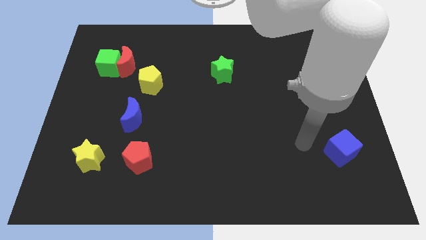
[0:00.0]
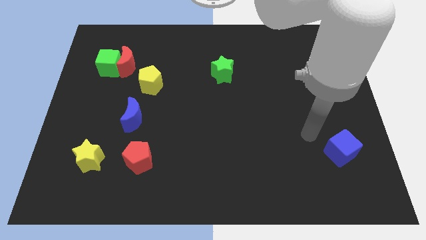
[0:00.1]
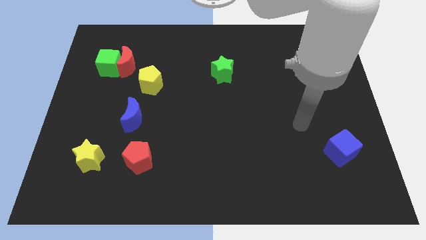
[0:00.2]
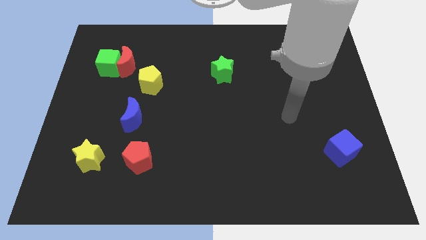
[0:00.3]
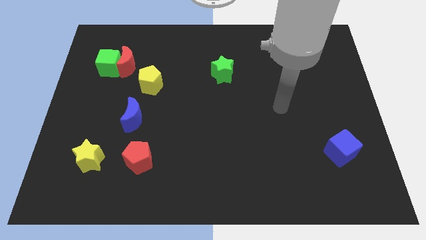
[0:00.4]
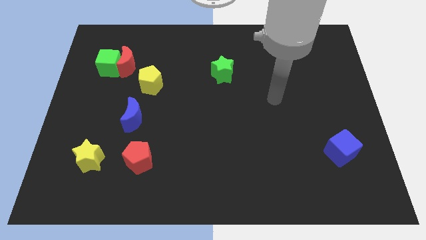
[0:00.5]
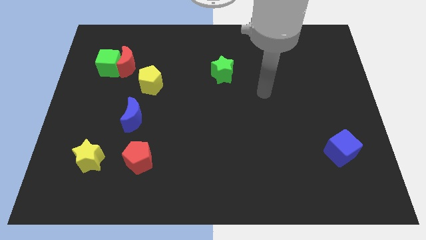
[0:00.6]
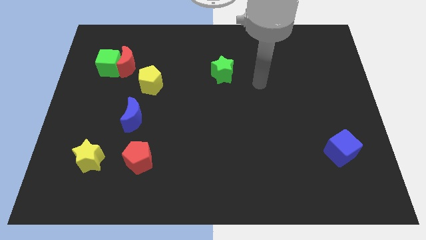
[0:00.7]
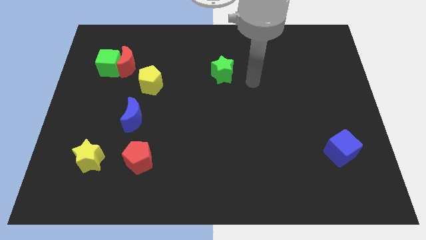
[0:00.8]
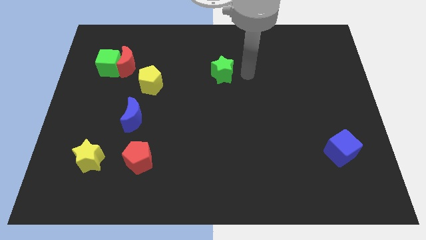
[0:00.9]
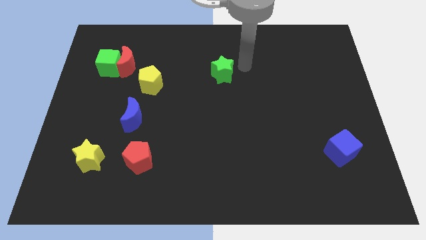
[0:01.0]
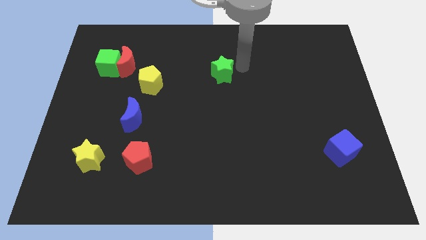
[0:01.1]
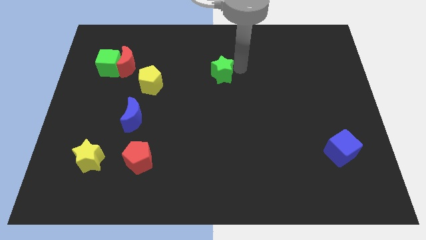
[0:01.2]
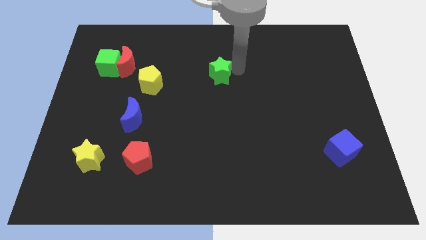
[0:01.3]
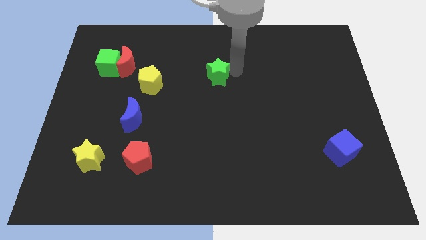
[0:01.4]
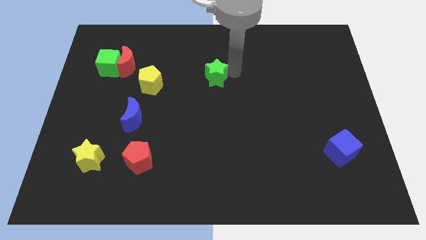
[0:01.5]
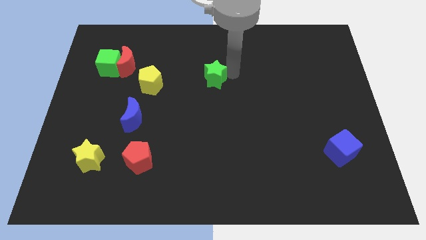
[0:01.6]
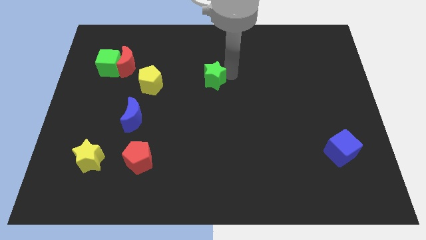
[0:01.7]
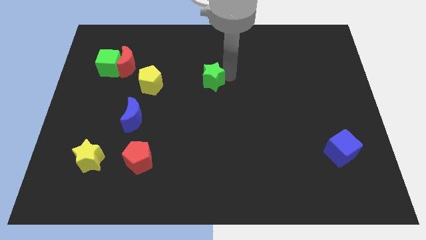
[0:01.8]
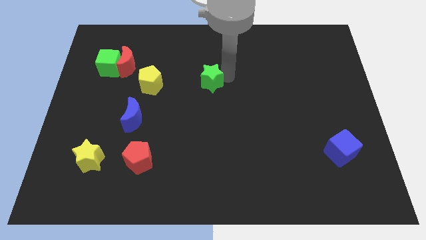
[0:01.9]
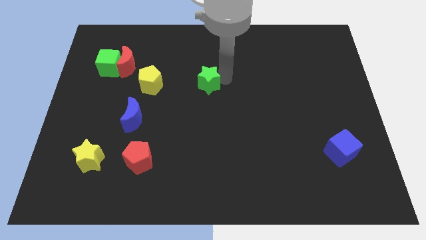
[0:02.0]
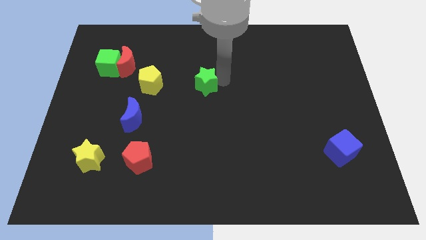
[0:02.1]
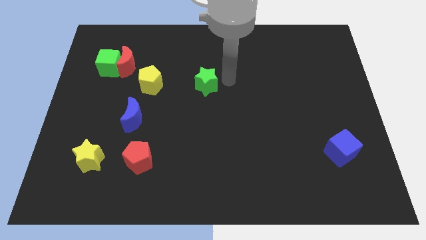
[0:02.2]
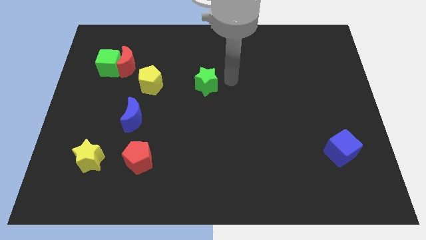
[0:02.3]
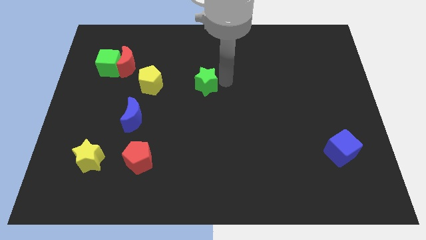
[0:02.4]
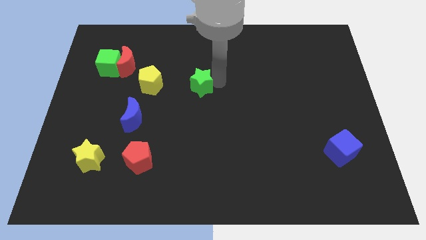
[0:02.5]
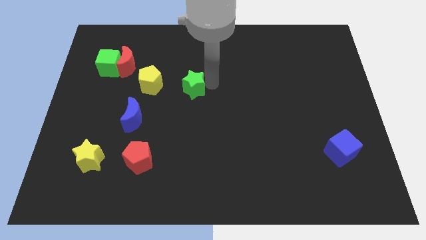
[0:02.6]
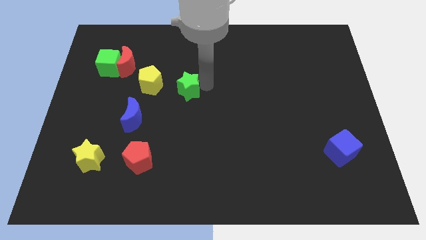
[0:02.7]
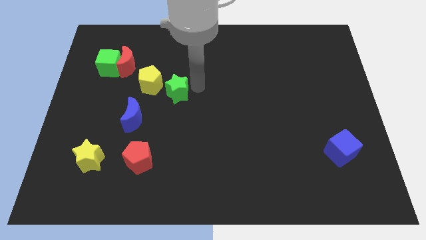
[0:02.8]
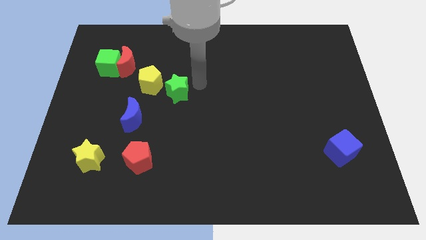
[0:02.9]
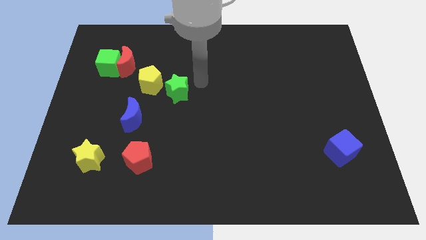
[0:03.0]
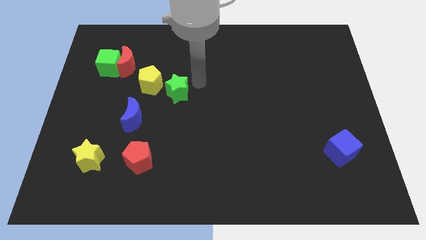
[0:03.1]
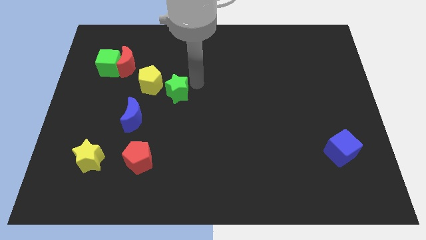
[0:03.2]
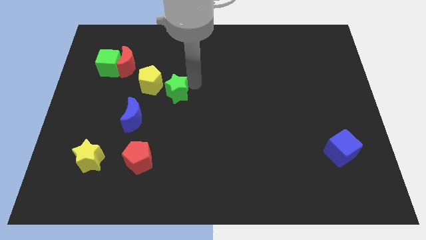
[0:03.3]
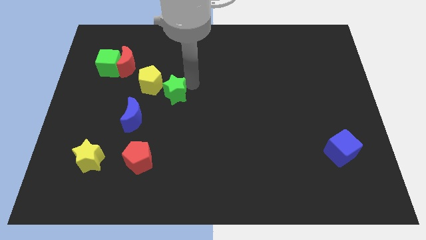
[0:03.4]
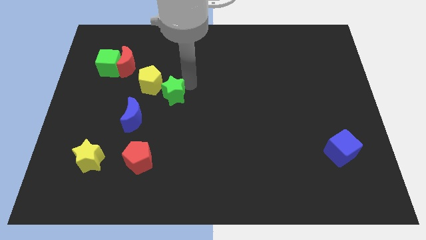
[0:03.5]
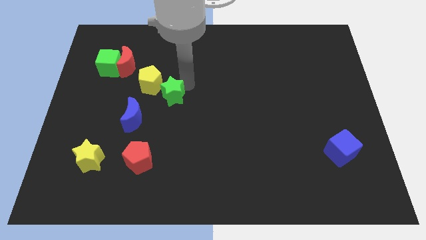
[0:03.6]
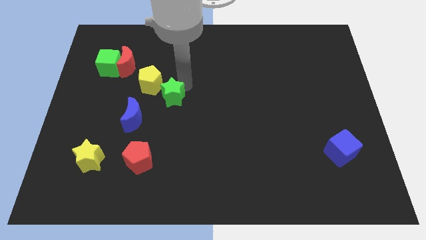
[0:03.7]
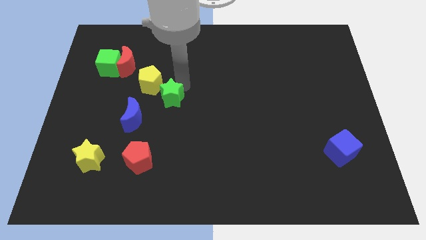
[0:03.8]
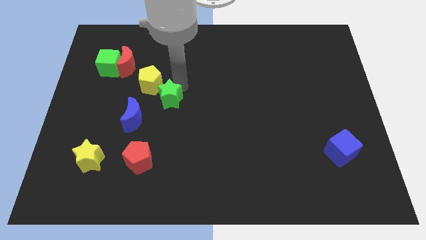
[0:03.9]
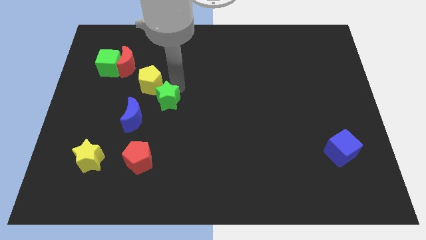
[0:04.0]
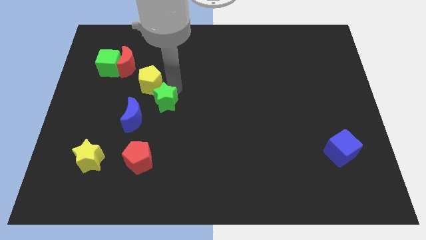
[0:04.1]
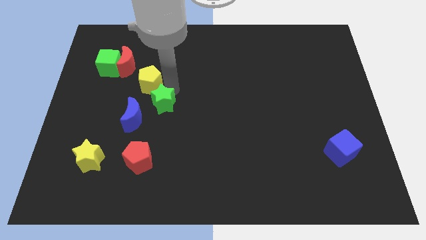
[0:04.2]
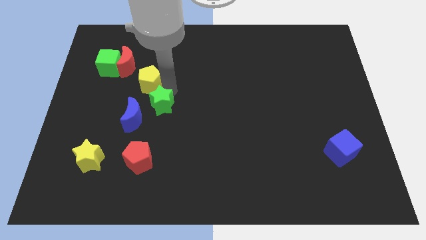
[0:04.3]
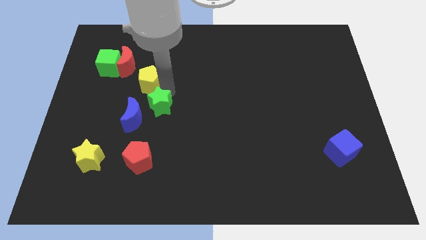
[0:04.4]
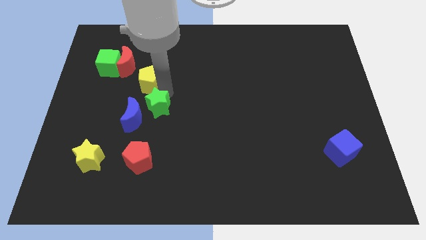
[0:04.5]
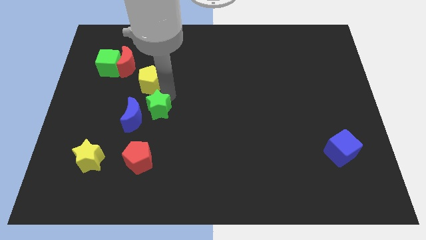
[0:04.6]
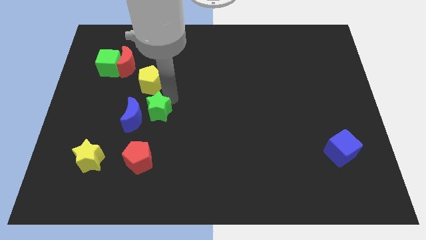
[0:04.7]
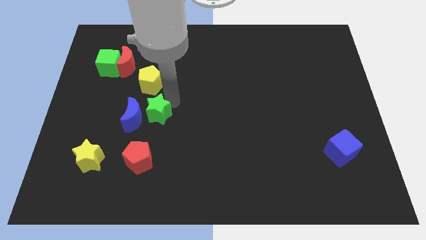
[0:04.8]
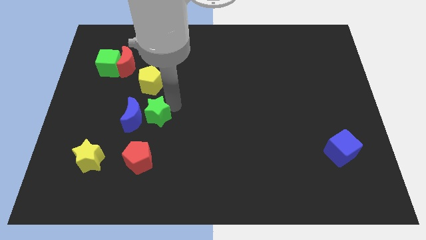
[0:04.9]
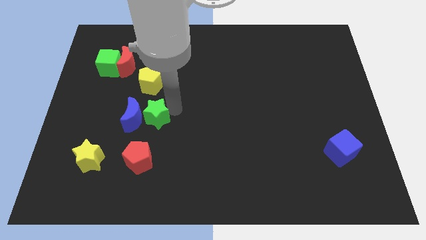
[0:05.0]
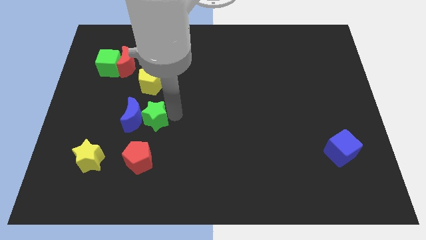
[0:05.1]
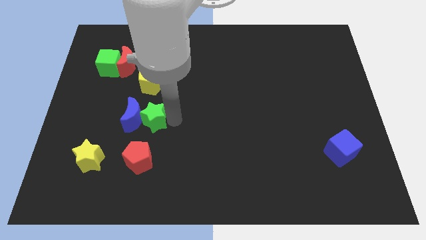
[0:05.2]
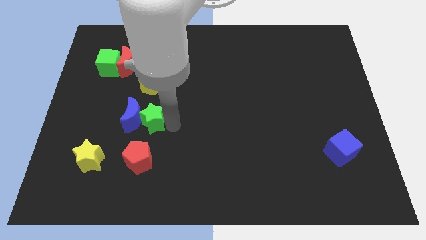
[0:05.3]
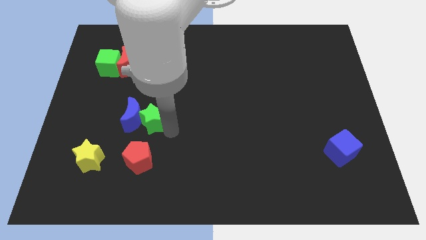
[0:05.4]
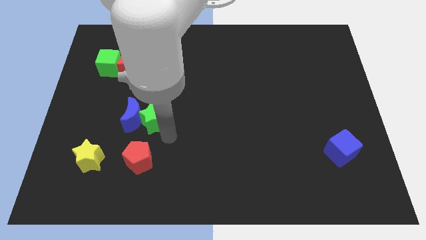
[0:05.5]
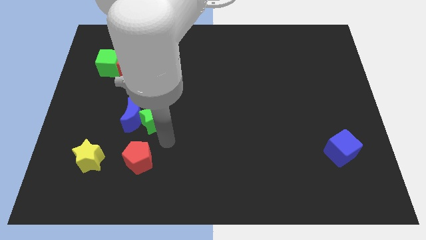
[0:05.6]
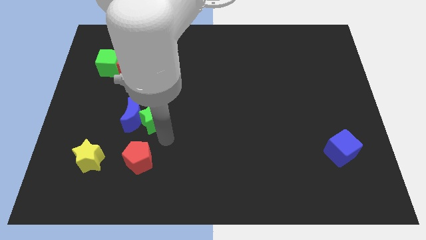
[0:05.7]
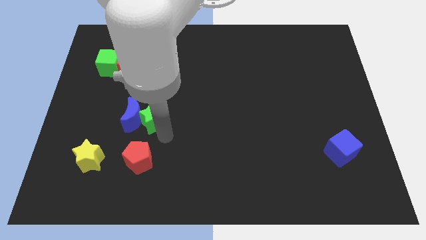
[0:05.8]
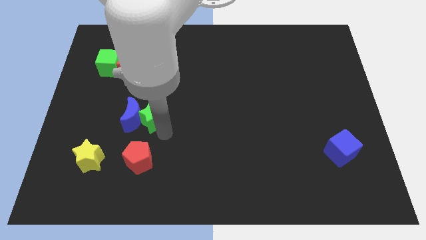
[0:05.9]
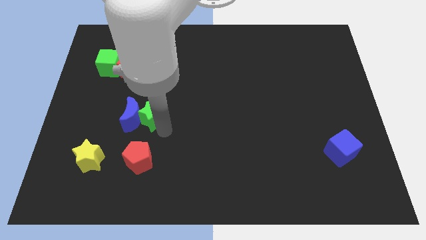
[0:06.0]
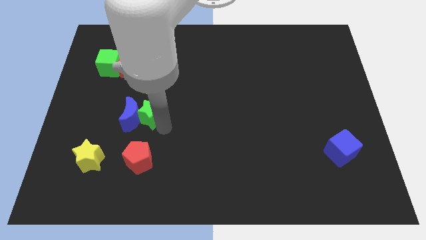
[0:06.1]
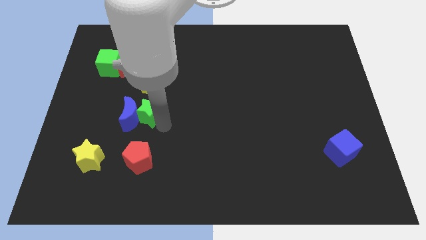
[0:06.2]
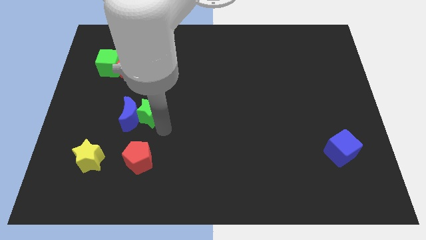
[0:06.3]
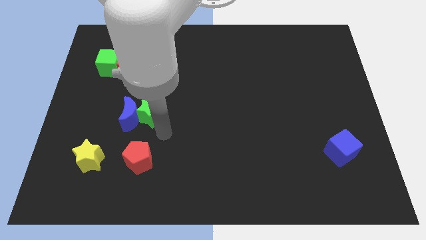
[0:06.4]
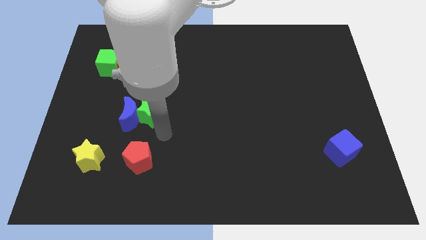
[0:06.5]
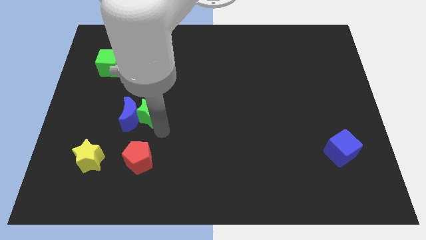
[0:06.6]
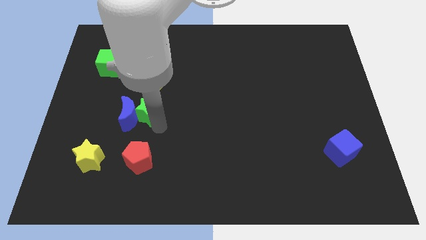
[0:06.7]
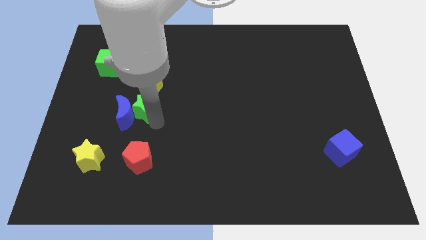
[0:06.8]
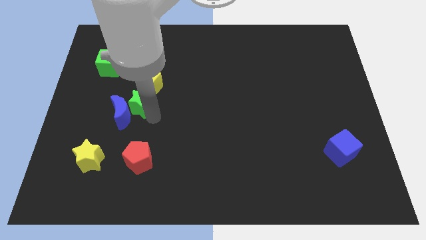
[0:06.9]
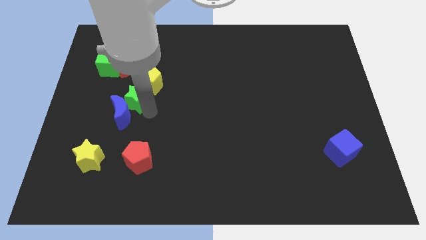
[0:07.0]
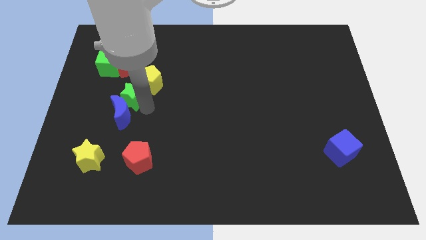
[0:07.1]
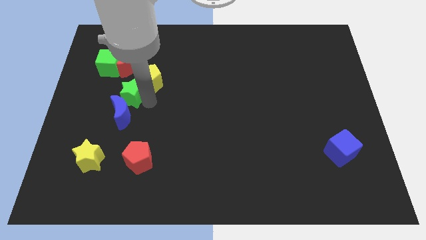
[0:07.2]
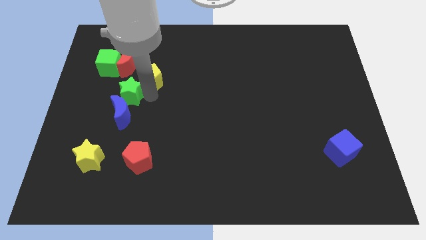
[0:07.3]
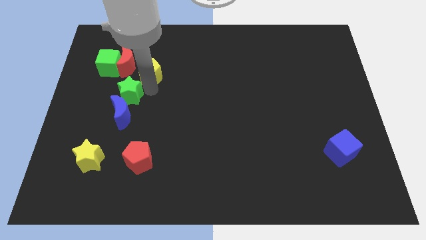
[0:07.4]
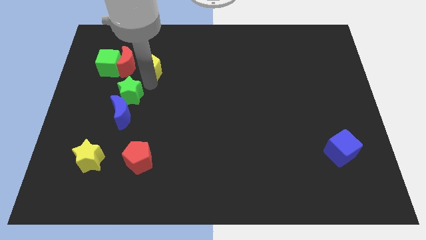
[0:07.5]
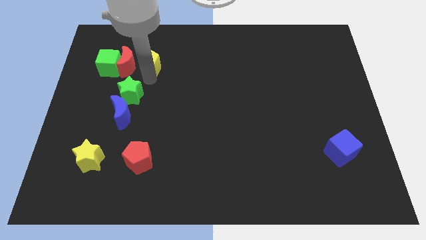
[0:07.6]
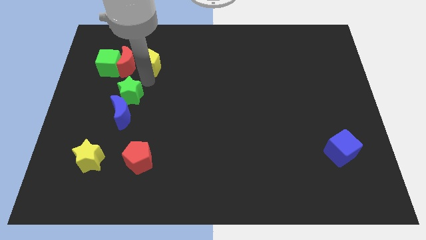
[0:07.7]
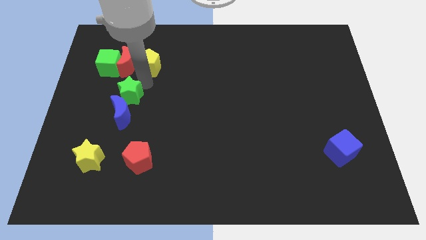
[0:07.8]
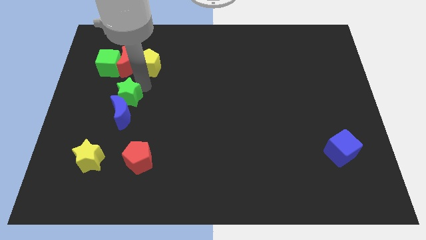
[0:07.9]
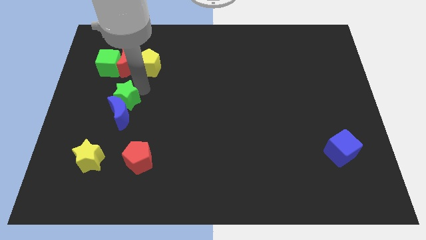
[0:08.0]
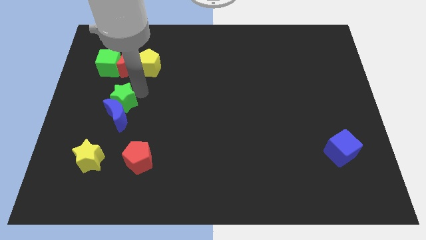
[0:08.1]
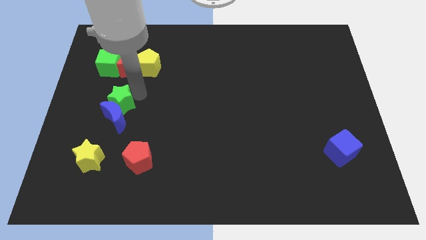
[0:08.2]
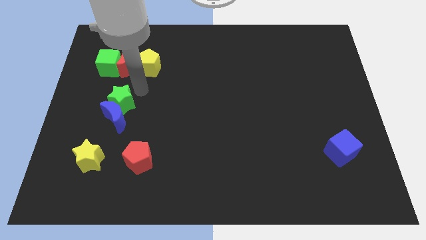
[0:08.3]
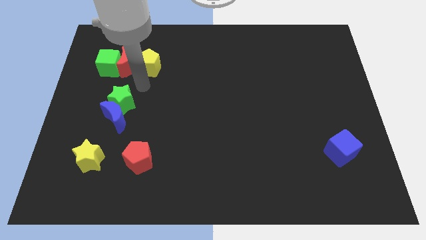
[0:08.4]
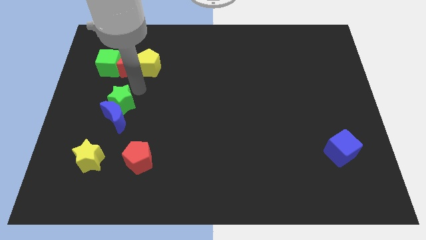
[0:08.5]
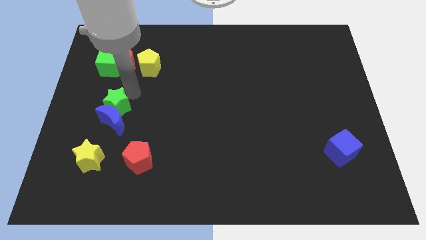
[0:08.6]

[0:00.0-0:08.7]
slide the green star to the top side of the yellow star
